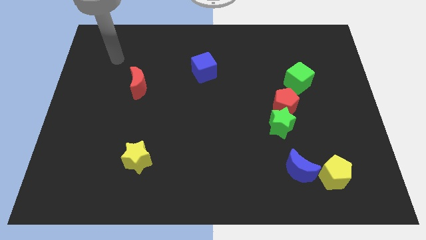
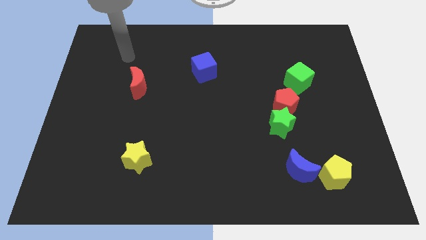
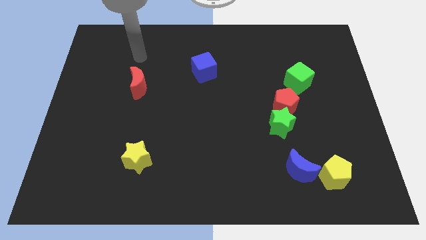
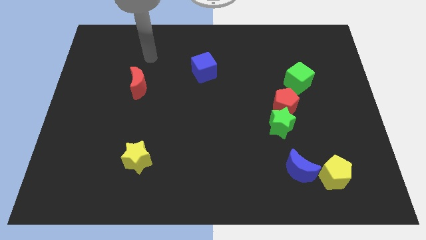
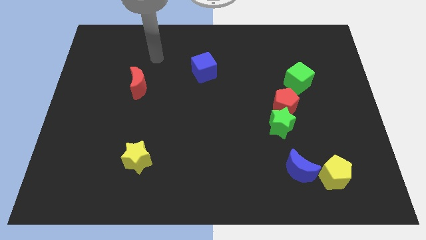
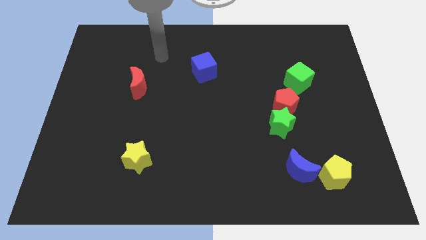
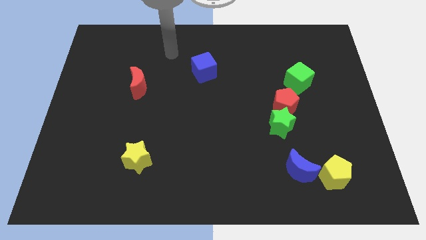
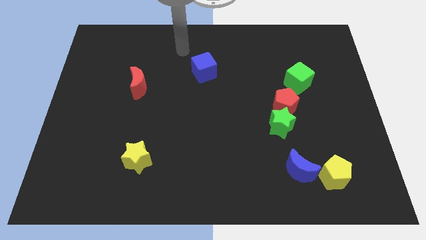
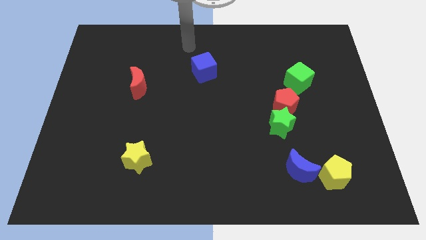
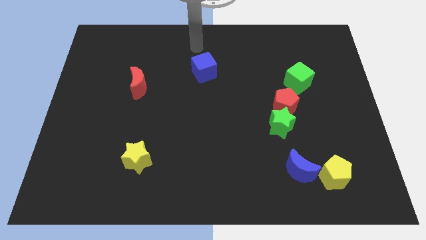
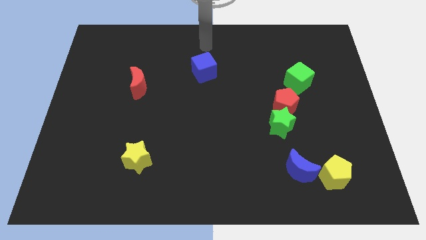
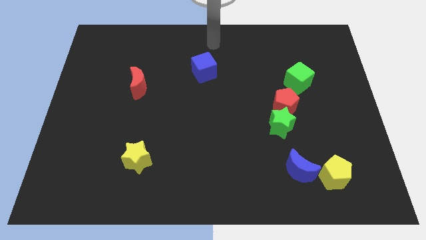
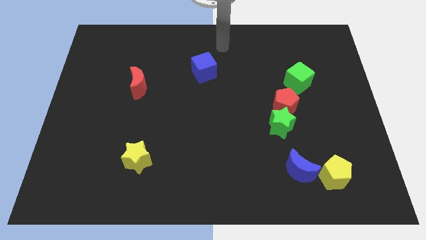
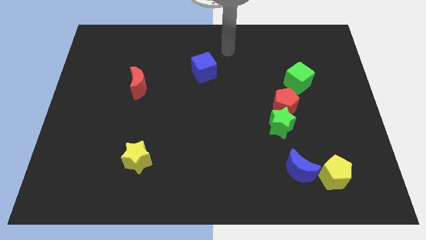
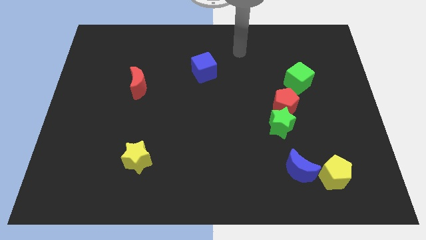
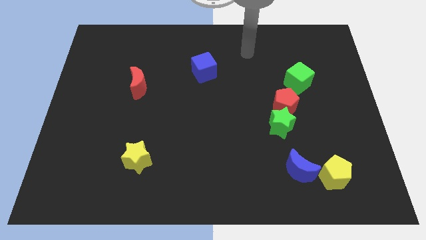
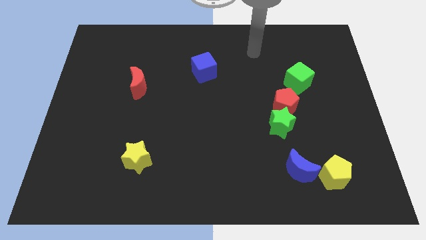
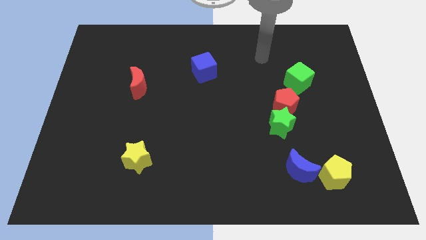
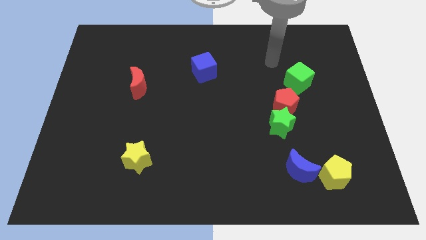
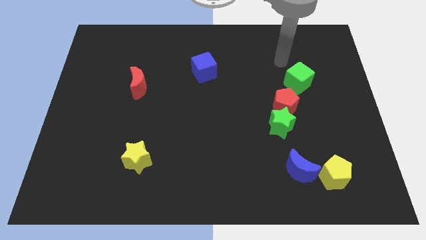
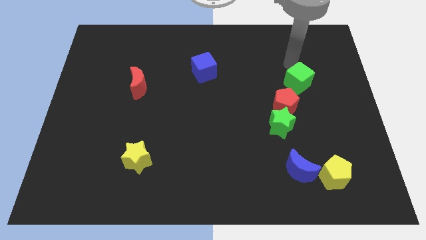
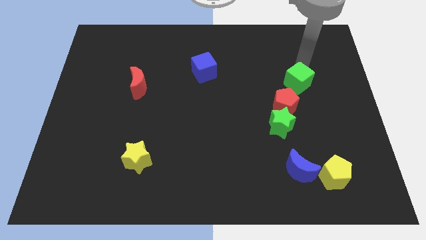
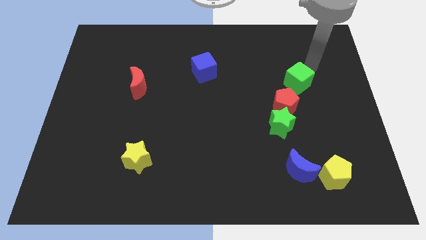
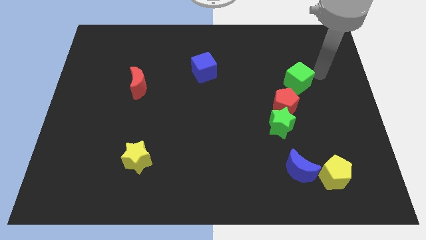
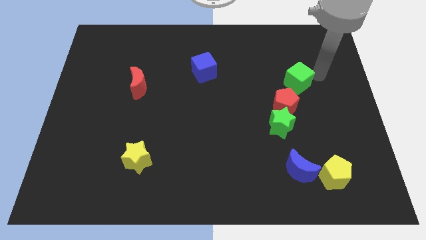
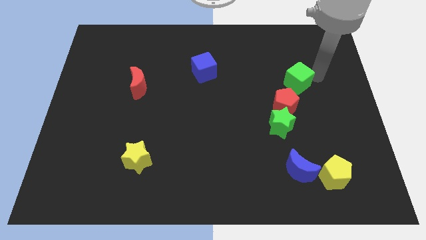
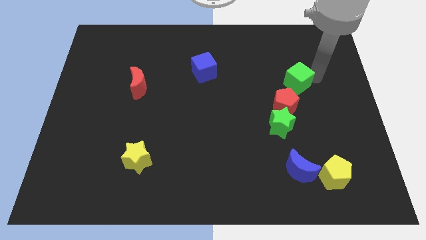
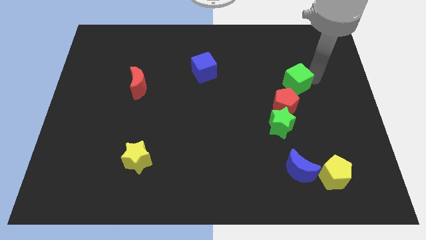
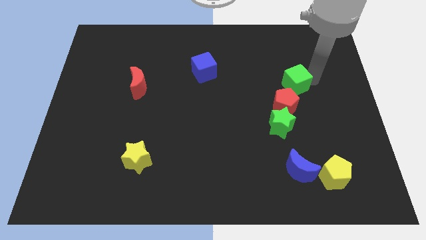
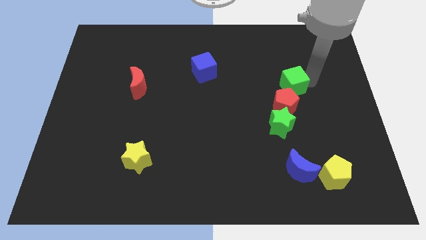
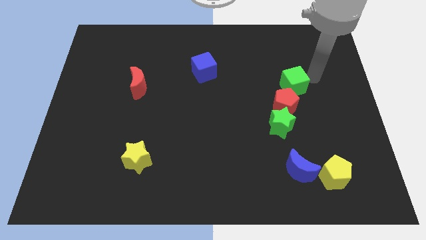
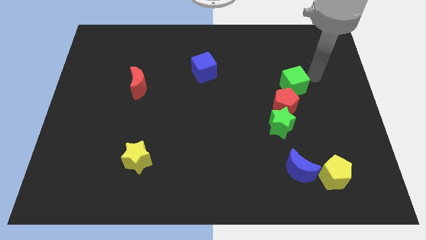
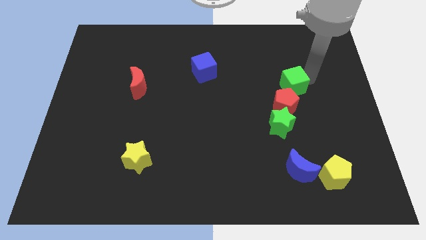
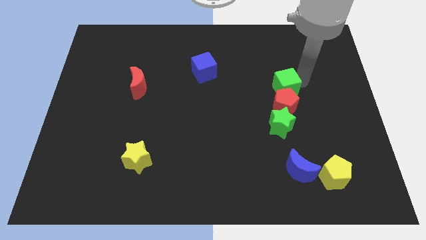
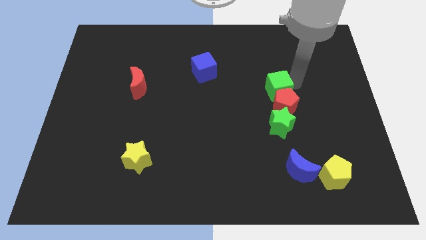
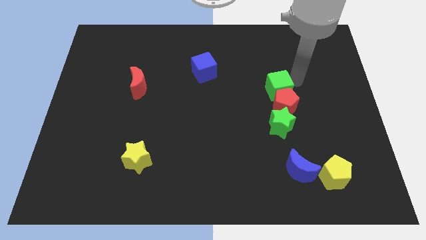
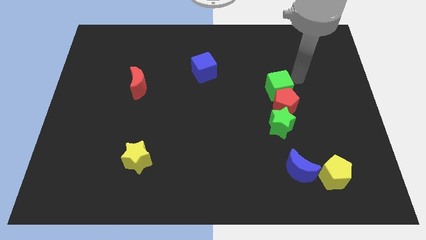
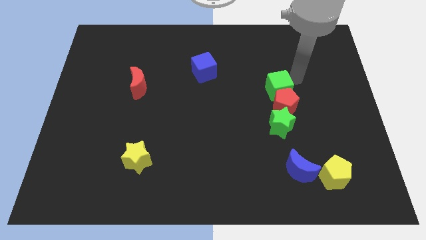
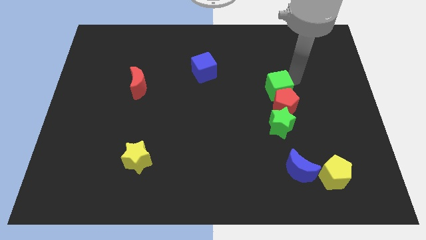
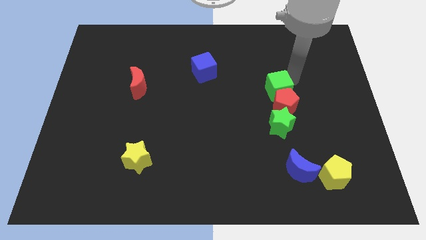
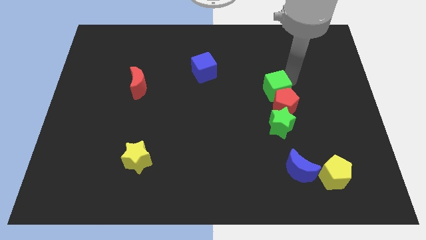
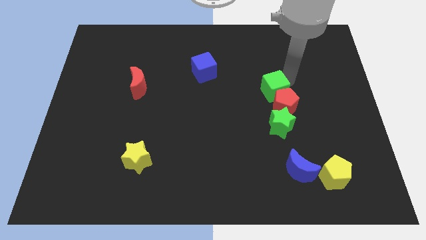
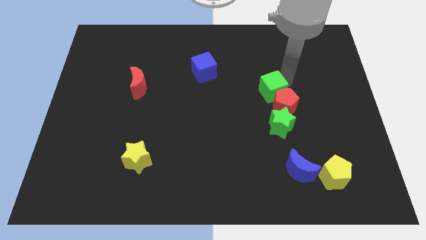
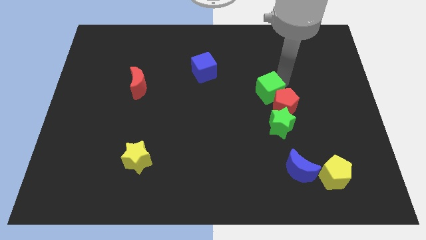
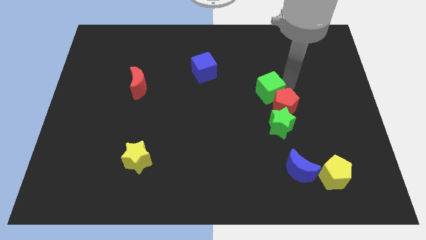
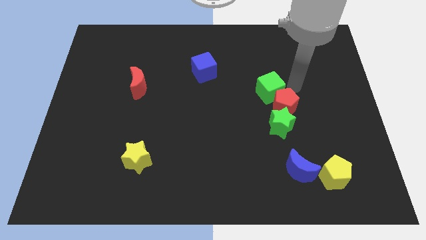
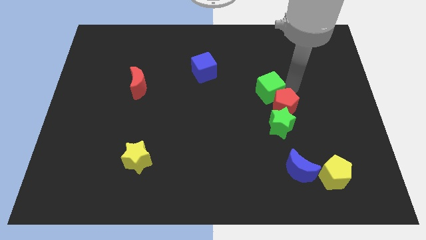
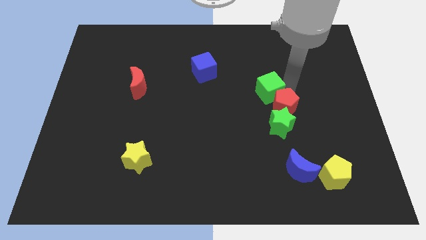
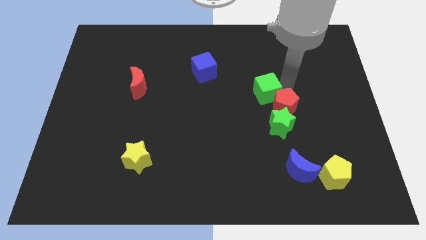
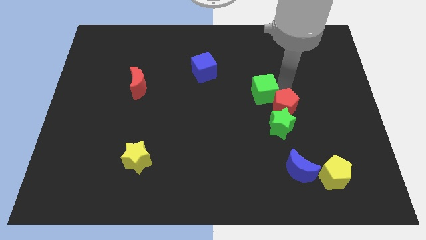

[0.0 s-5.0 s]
push the green cube to the center

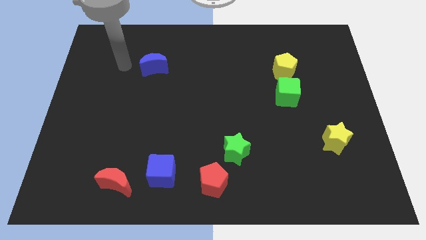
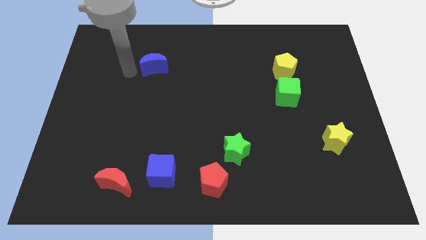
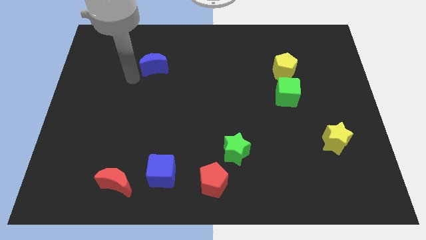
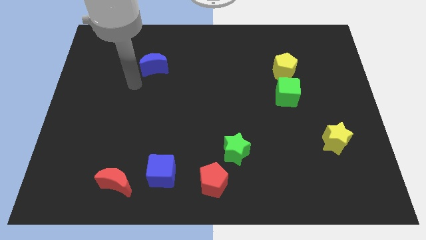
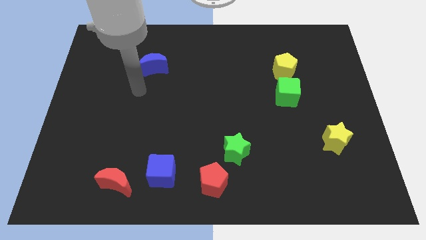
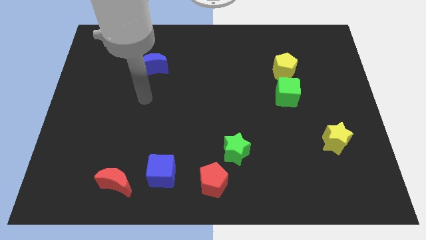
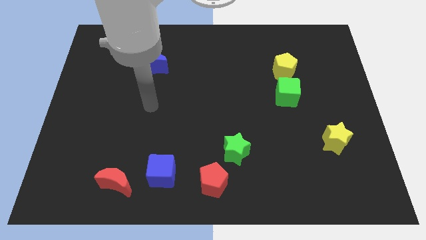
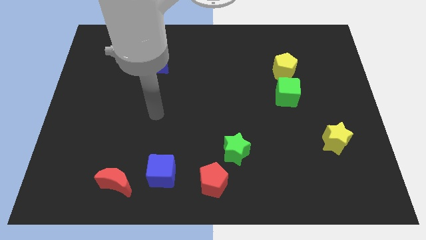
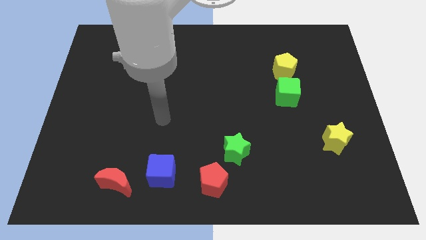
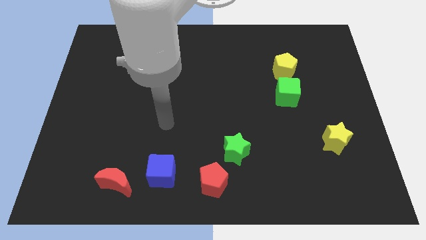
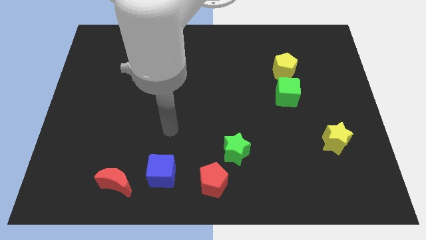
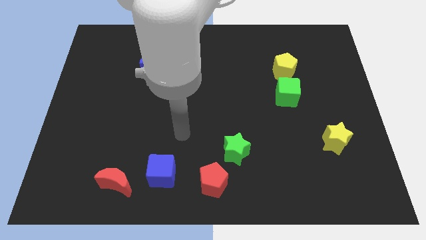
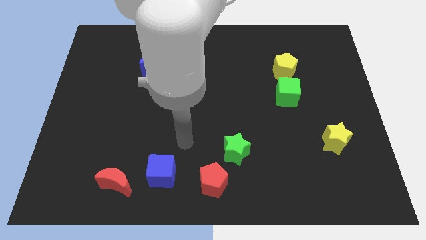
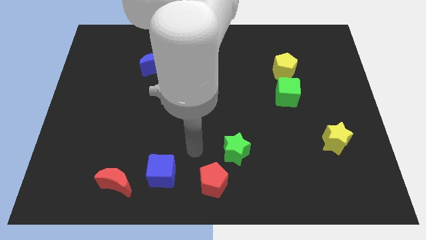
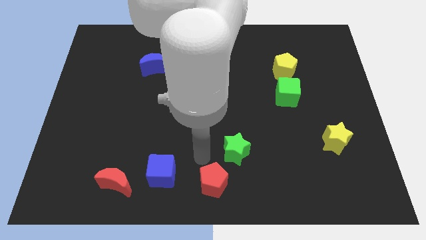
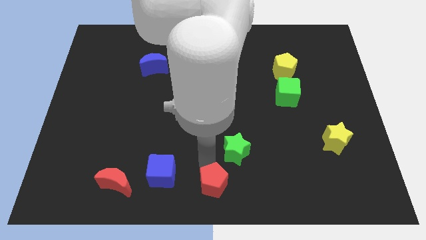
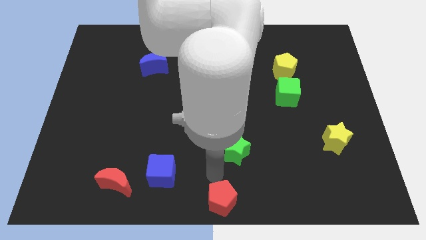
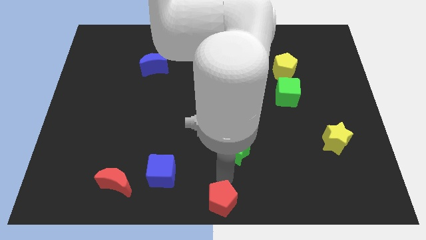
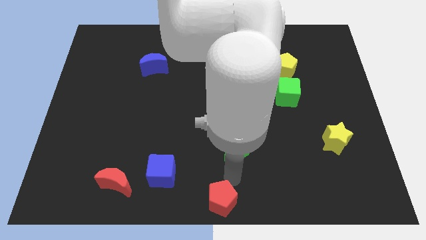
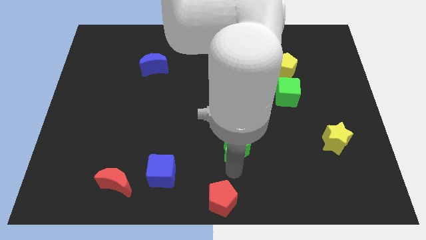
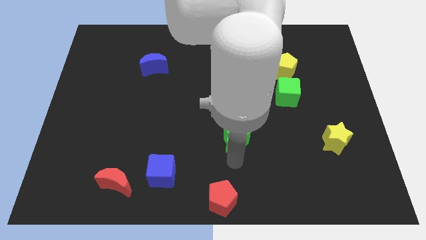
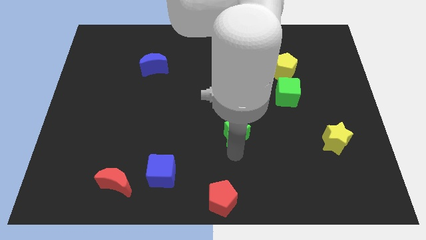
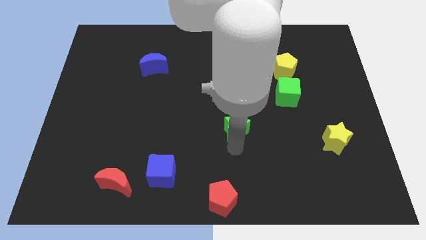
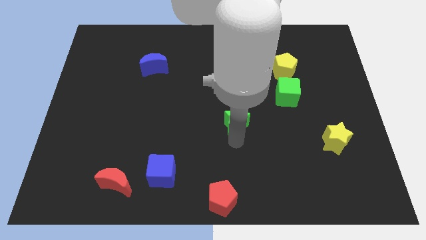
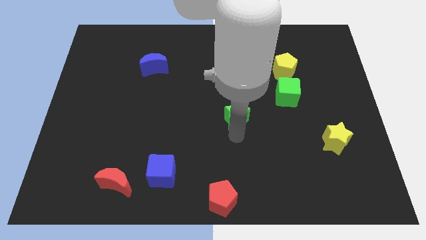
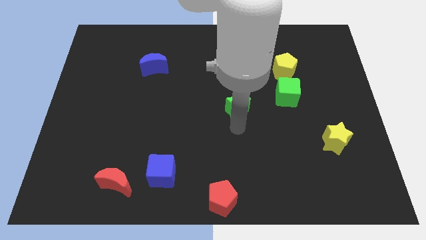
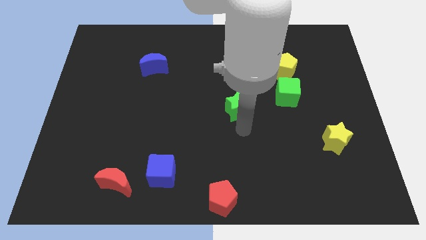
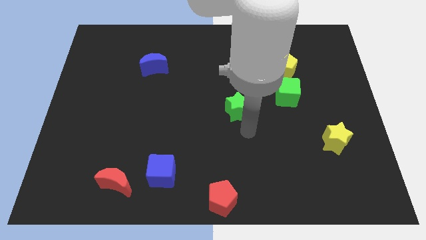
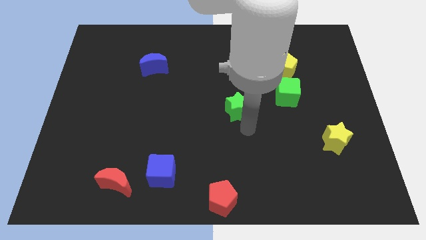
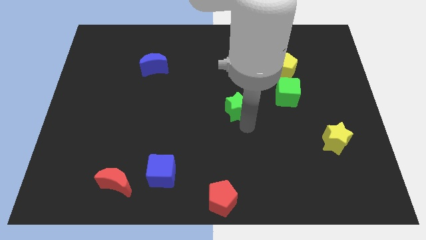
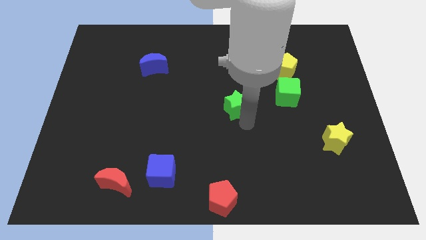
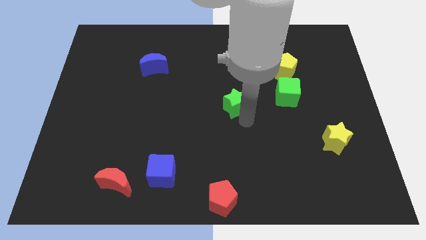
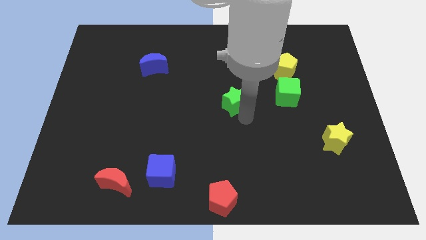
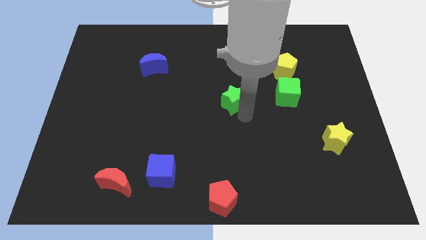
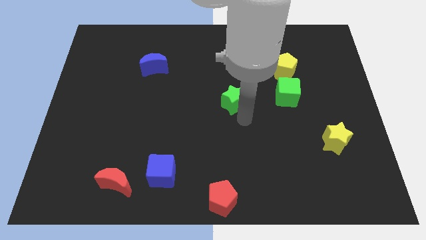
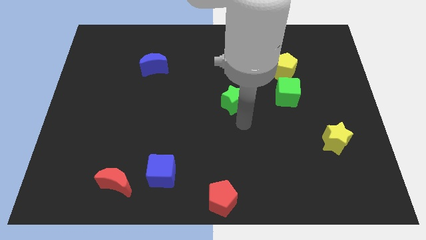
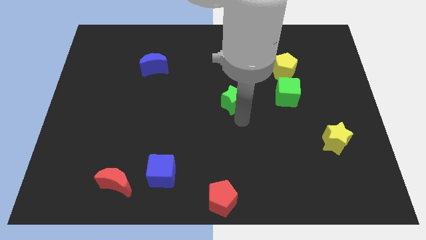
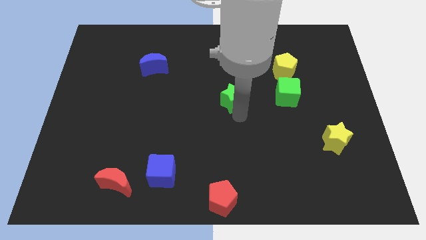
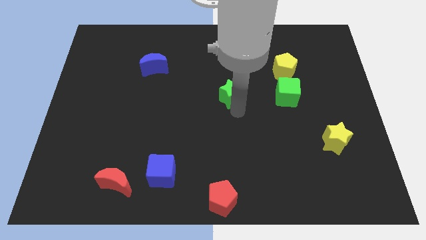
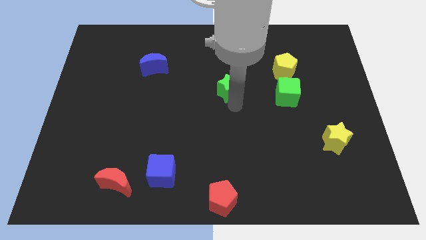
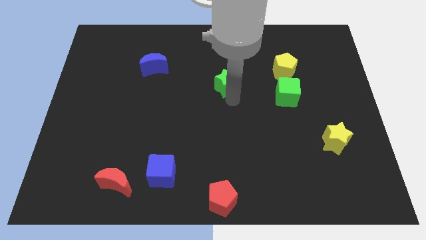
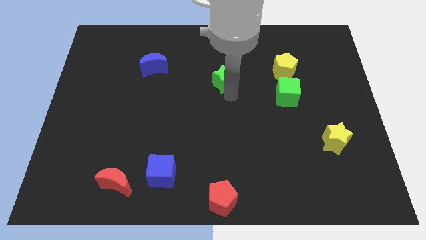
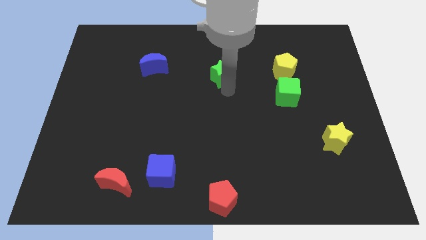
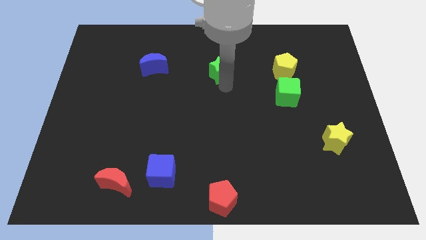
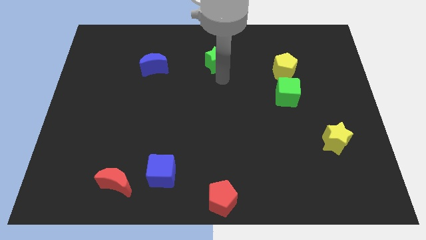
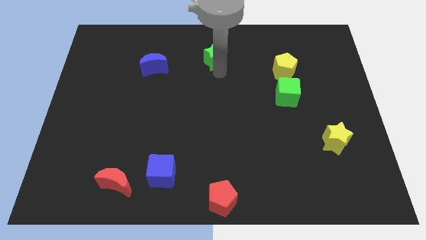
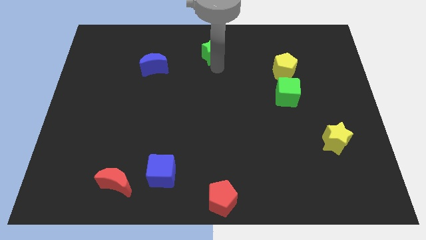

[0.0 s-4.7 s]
put the green star to the top side
